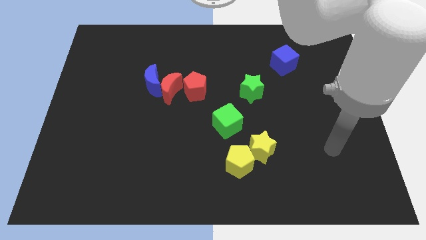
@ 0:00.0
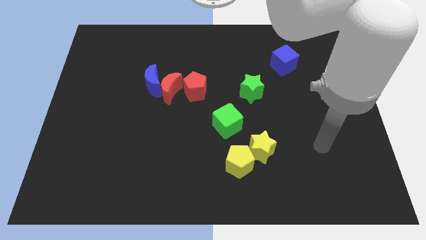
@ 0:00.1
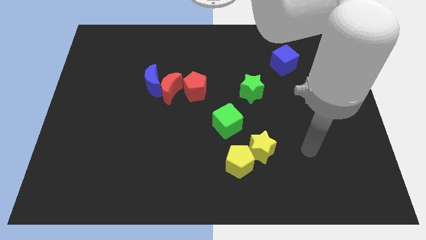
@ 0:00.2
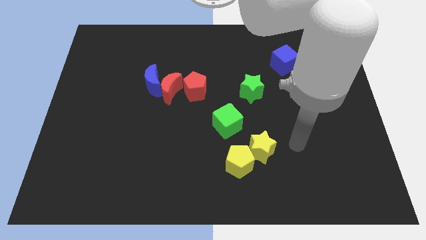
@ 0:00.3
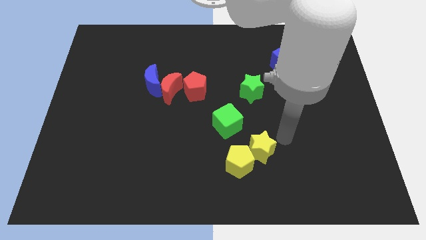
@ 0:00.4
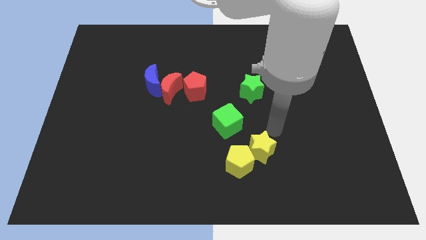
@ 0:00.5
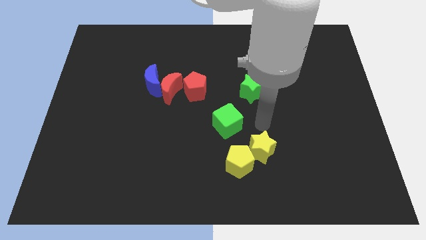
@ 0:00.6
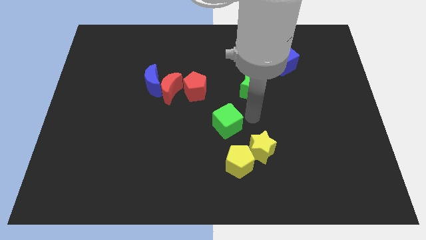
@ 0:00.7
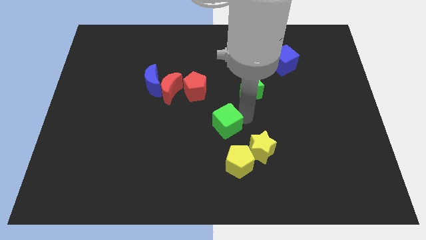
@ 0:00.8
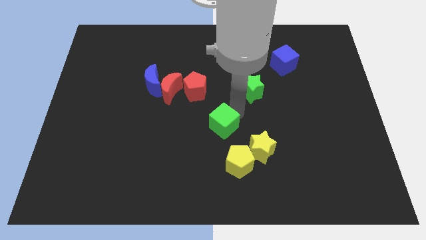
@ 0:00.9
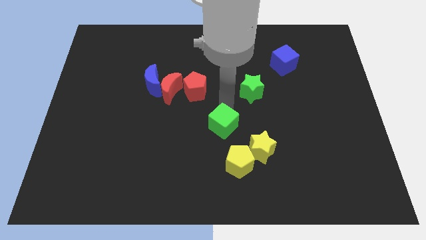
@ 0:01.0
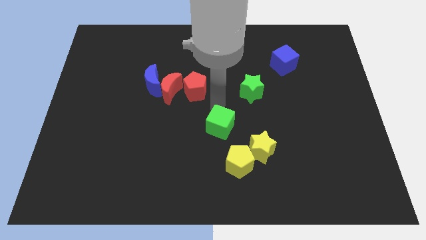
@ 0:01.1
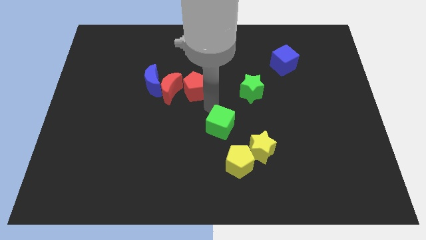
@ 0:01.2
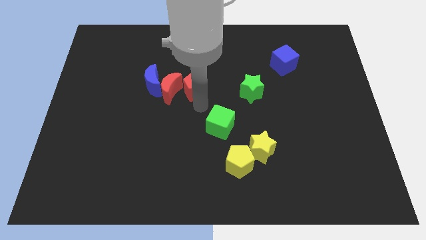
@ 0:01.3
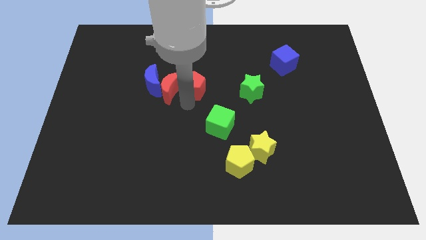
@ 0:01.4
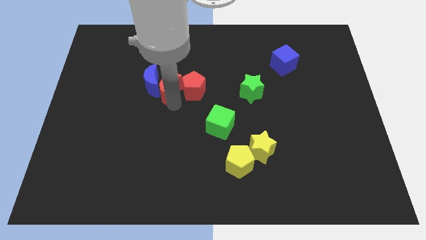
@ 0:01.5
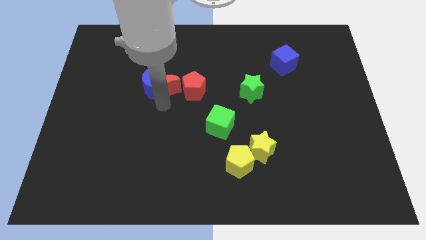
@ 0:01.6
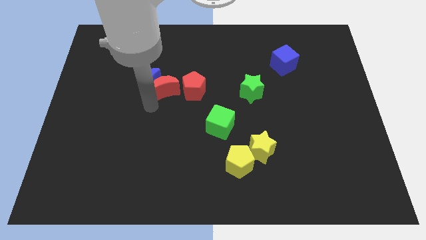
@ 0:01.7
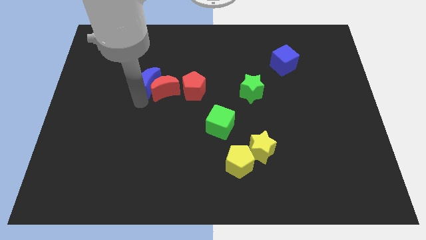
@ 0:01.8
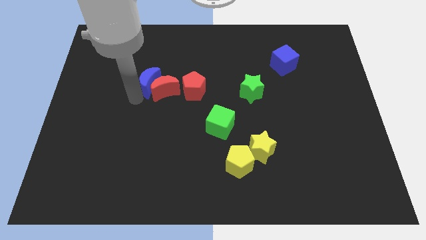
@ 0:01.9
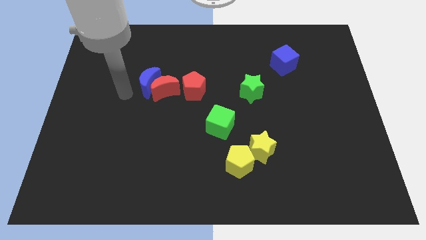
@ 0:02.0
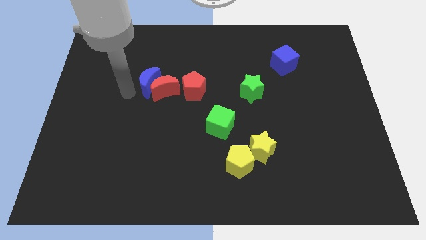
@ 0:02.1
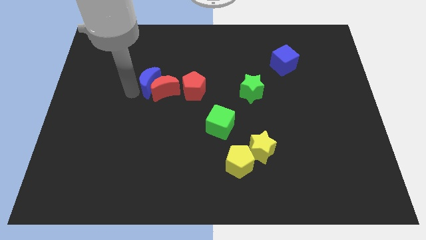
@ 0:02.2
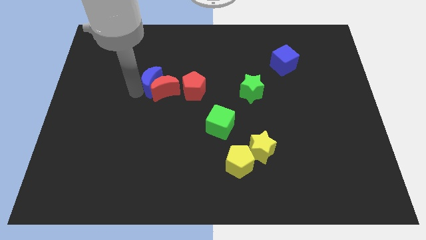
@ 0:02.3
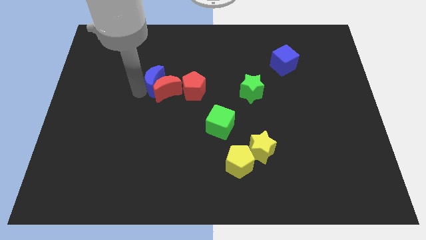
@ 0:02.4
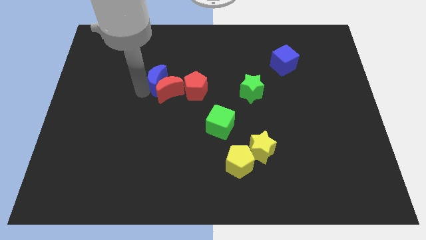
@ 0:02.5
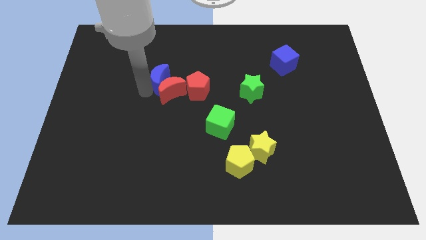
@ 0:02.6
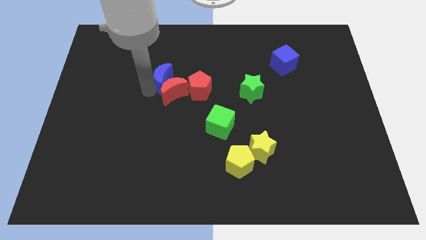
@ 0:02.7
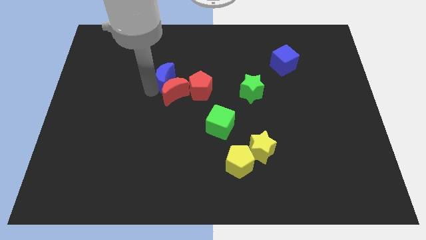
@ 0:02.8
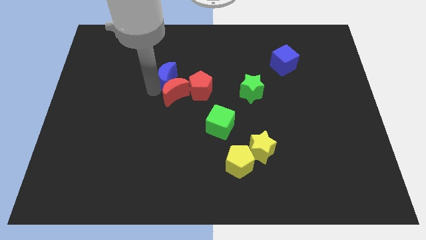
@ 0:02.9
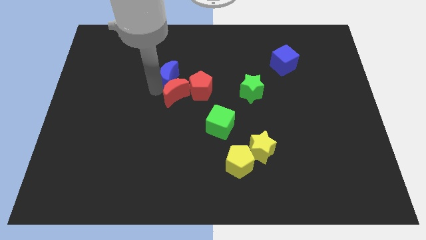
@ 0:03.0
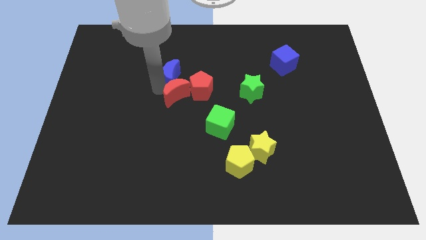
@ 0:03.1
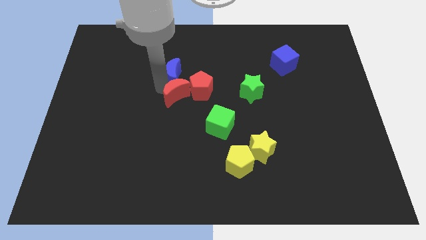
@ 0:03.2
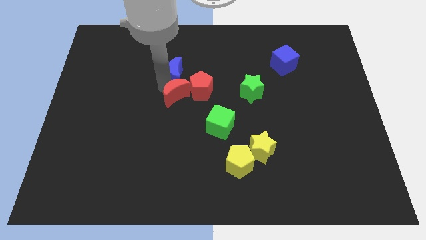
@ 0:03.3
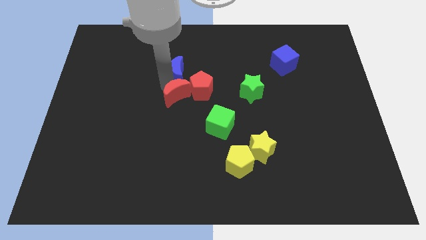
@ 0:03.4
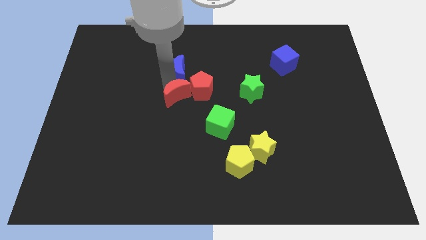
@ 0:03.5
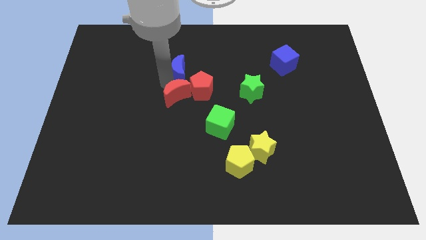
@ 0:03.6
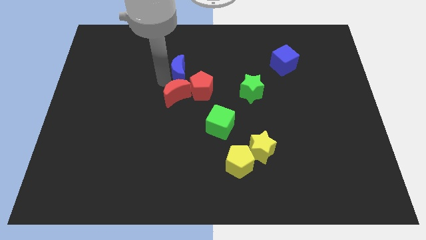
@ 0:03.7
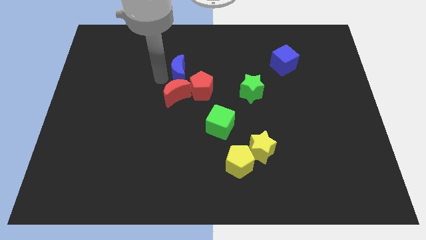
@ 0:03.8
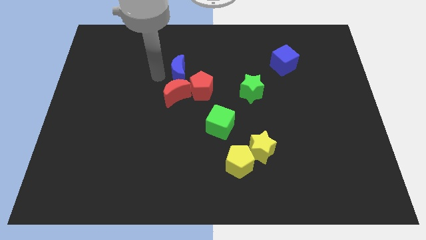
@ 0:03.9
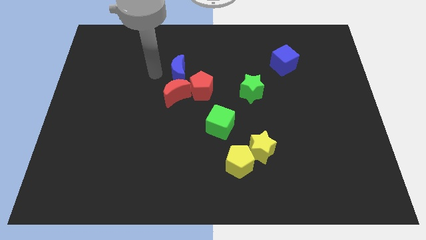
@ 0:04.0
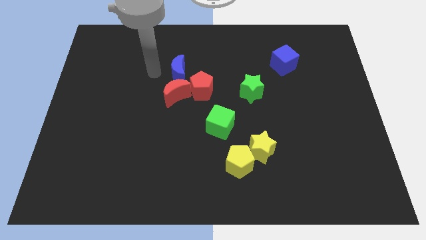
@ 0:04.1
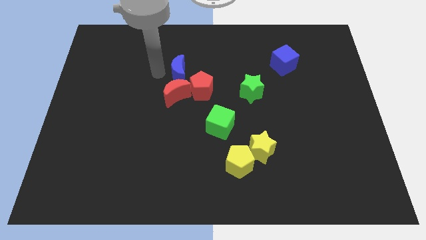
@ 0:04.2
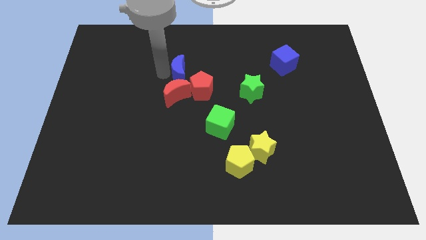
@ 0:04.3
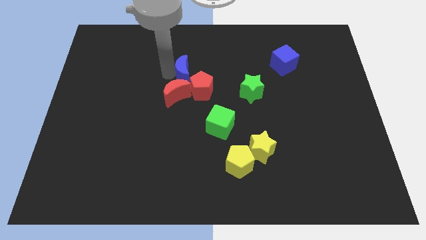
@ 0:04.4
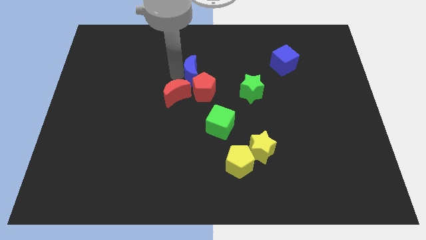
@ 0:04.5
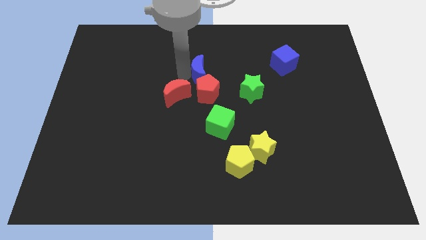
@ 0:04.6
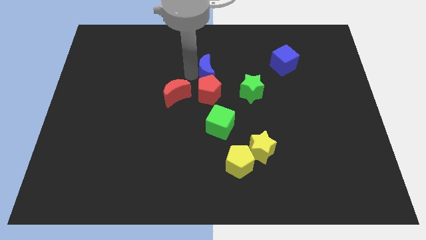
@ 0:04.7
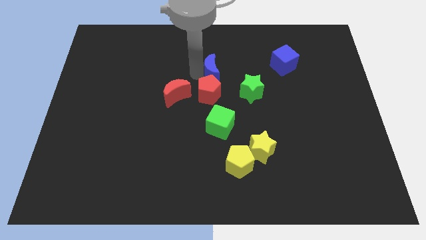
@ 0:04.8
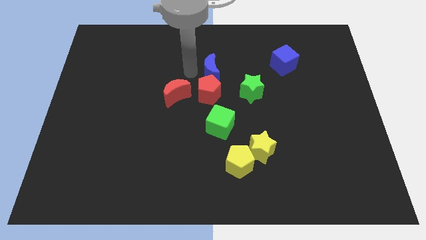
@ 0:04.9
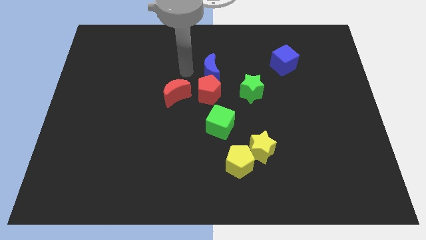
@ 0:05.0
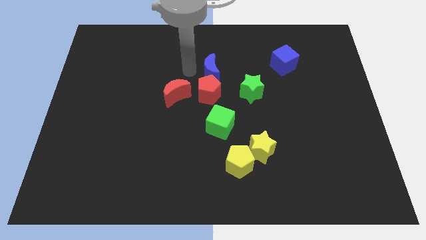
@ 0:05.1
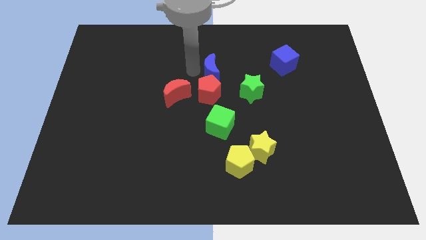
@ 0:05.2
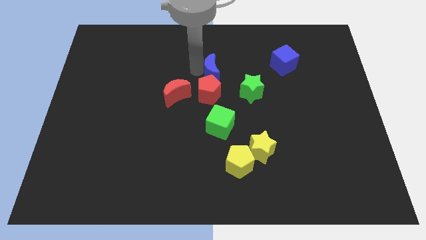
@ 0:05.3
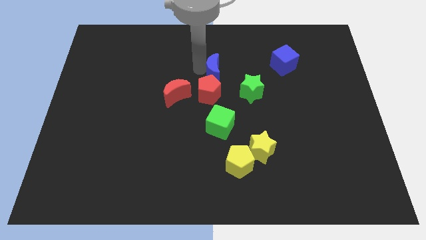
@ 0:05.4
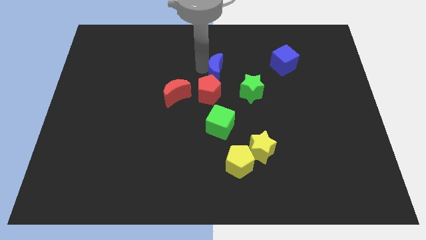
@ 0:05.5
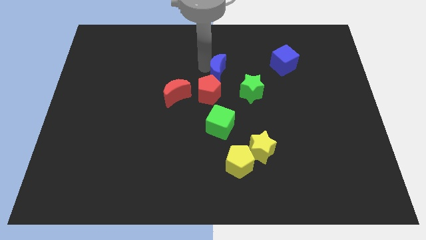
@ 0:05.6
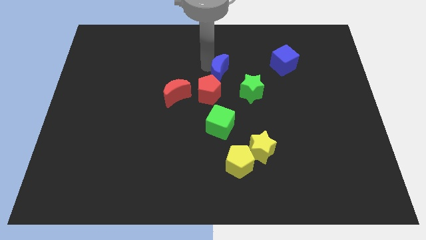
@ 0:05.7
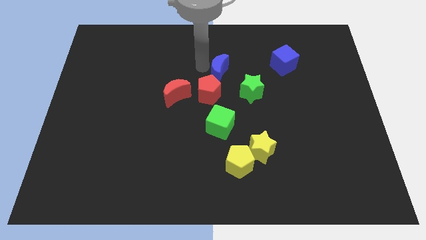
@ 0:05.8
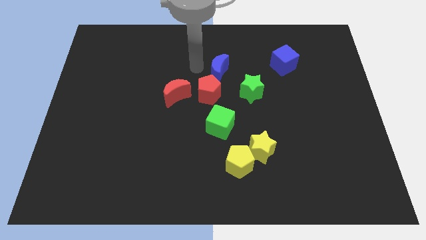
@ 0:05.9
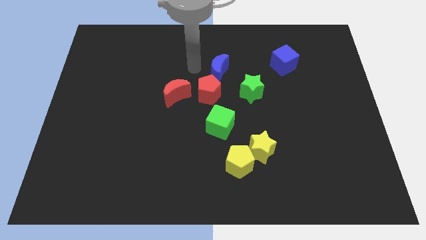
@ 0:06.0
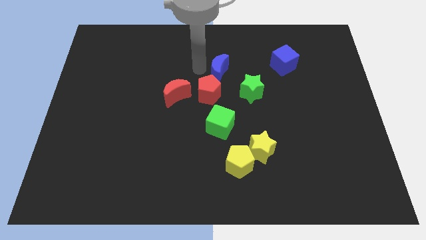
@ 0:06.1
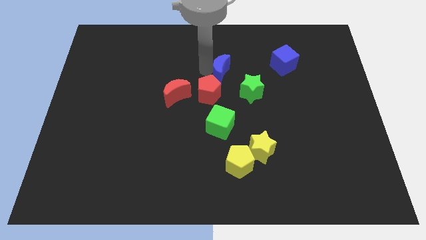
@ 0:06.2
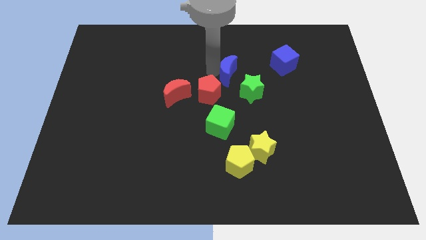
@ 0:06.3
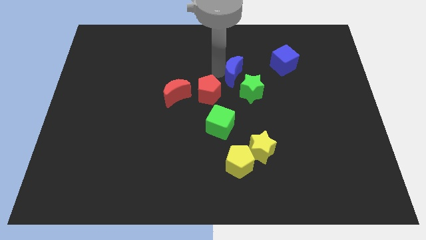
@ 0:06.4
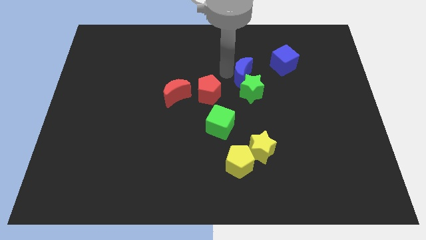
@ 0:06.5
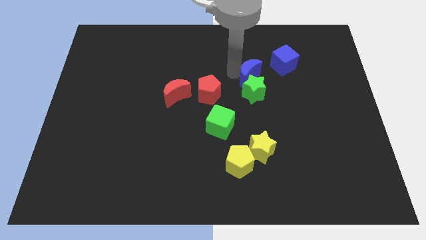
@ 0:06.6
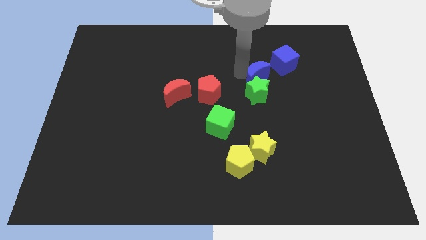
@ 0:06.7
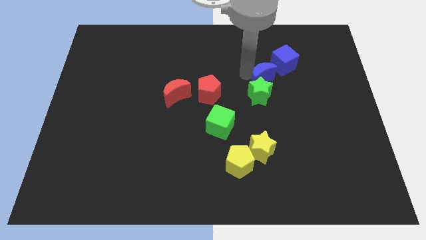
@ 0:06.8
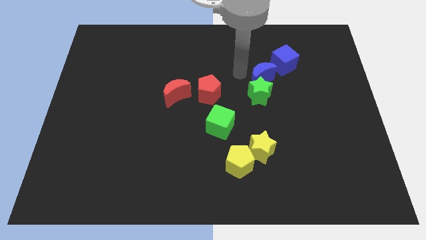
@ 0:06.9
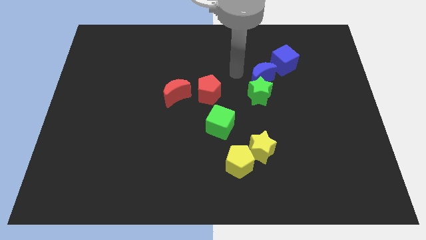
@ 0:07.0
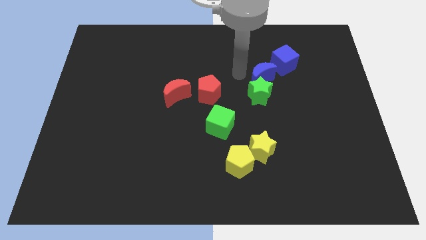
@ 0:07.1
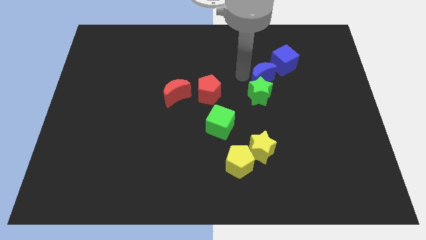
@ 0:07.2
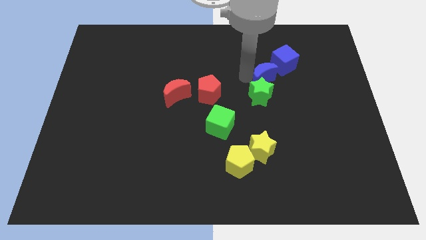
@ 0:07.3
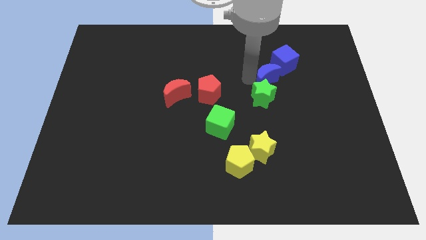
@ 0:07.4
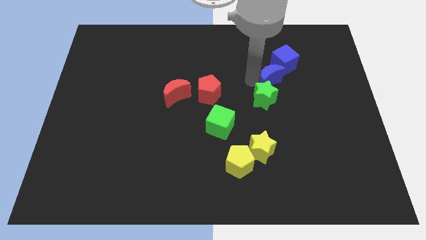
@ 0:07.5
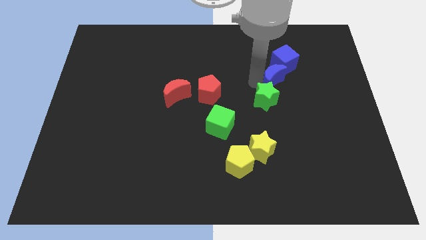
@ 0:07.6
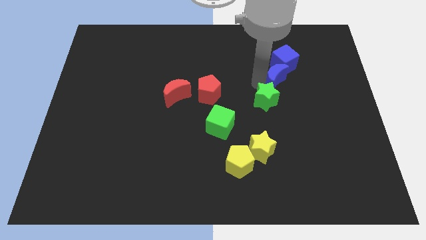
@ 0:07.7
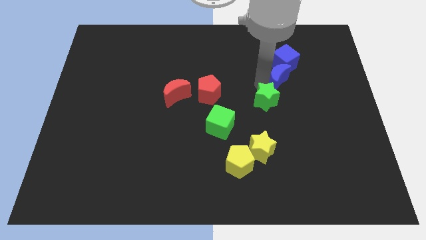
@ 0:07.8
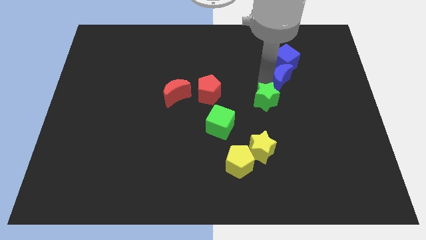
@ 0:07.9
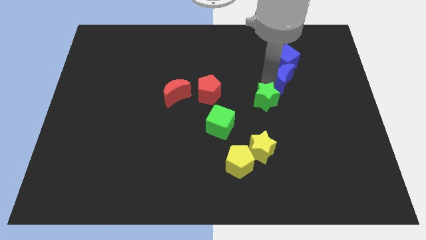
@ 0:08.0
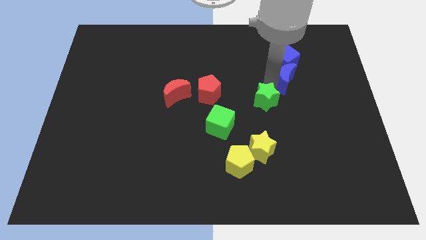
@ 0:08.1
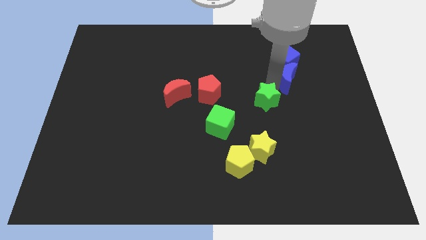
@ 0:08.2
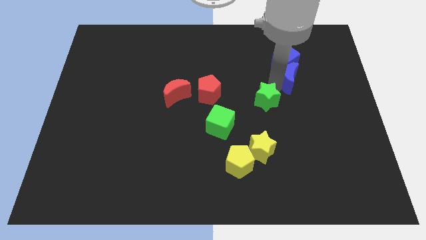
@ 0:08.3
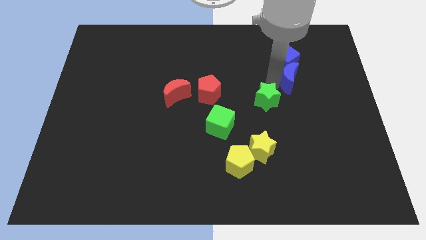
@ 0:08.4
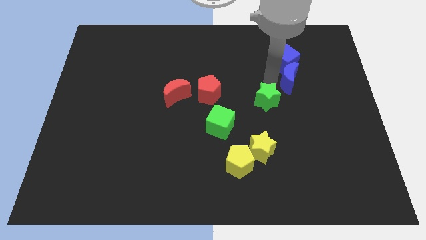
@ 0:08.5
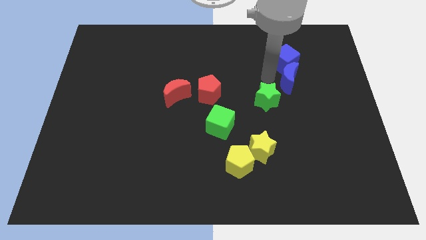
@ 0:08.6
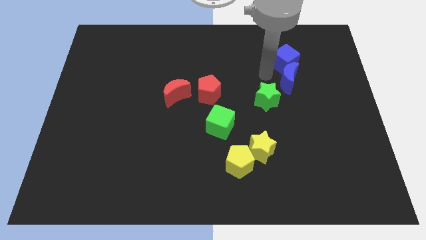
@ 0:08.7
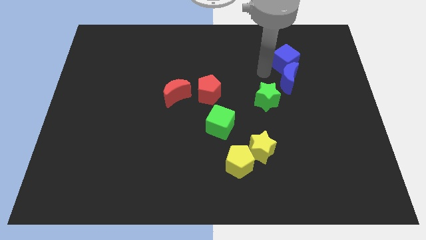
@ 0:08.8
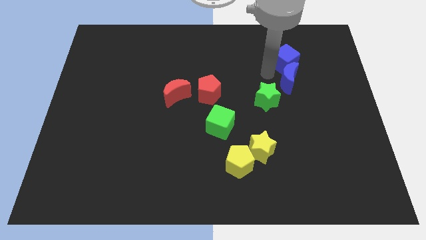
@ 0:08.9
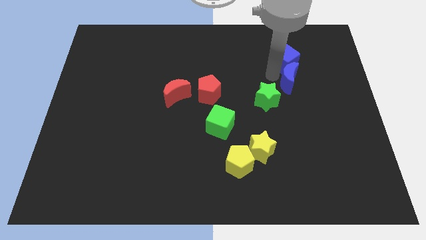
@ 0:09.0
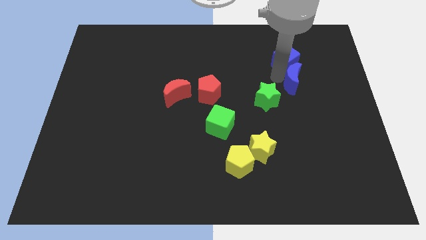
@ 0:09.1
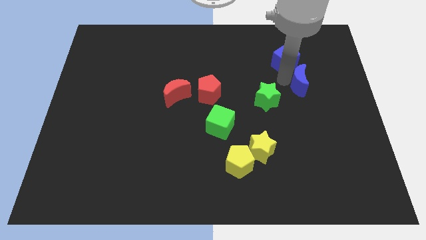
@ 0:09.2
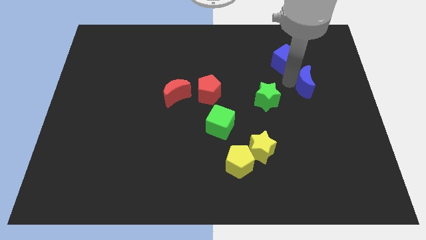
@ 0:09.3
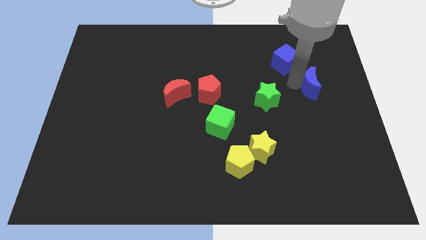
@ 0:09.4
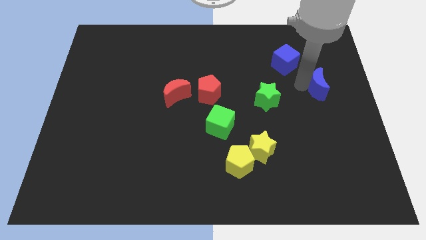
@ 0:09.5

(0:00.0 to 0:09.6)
slide the blue moon to the right side of the board
